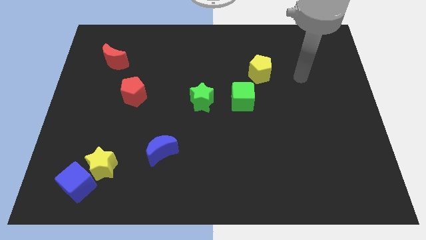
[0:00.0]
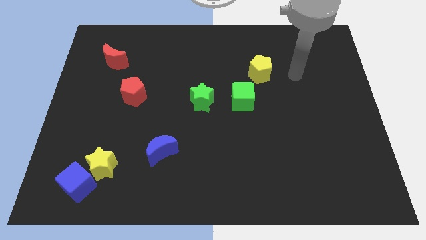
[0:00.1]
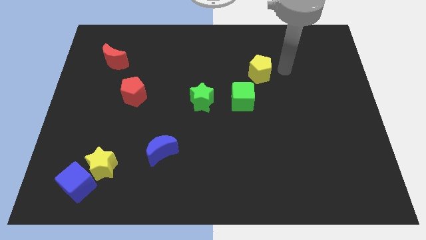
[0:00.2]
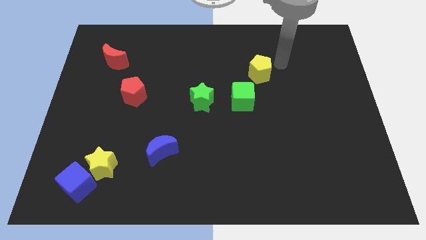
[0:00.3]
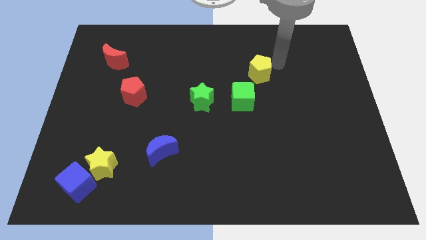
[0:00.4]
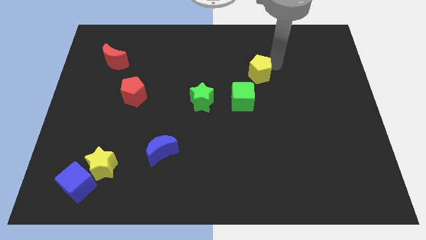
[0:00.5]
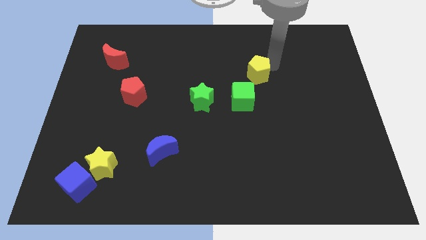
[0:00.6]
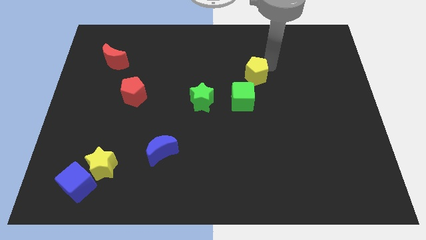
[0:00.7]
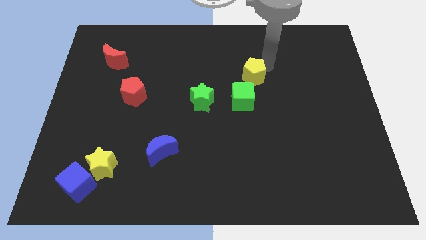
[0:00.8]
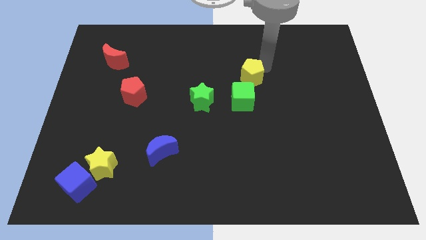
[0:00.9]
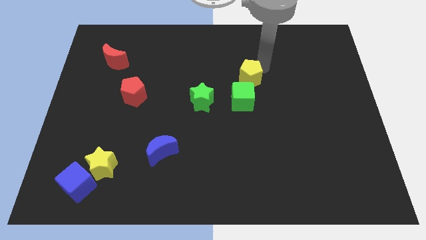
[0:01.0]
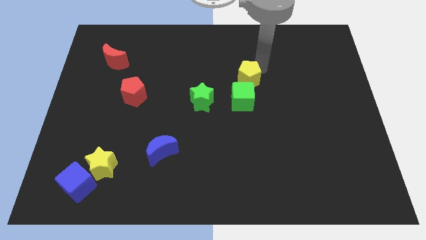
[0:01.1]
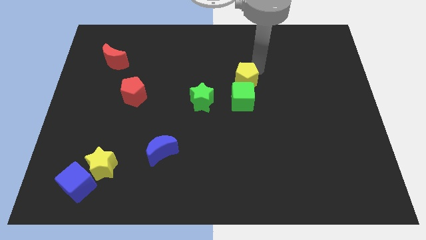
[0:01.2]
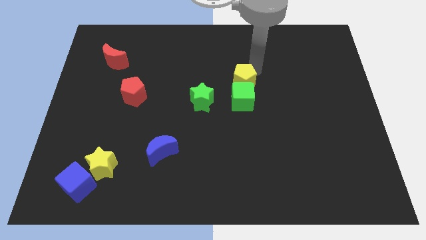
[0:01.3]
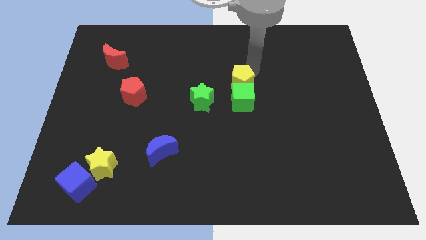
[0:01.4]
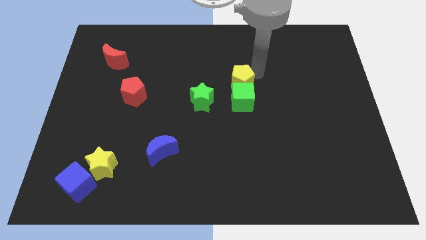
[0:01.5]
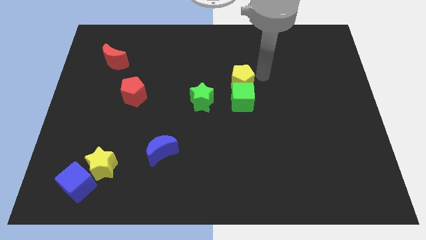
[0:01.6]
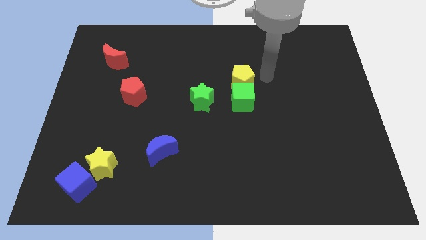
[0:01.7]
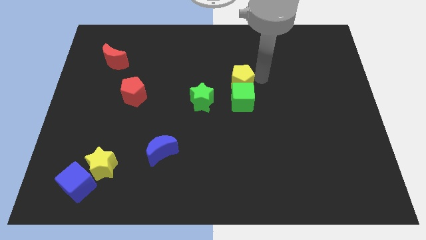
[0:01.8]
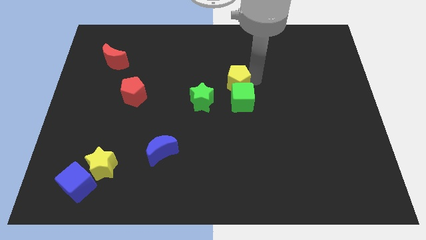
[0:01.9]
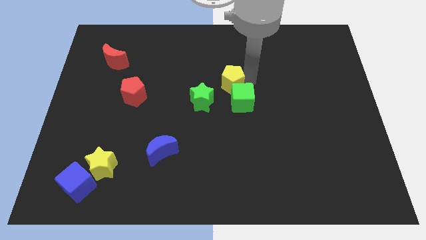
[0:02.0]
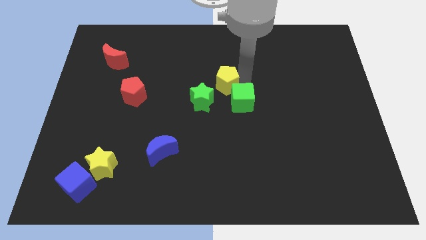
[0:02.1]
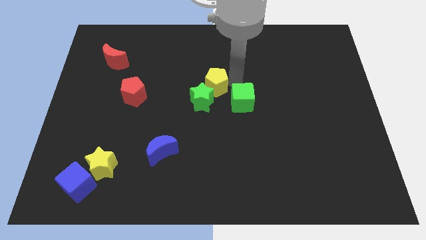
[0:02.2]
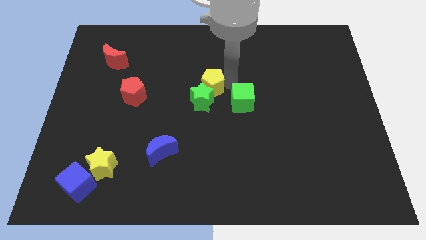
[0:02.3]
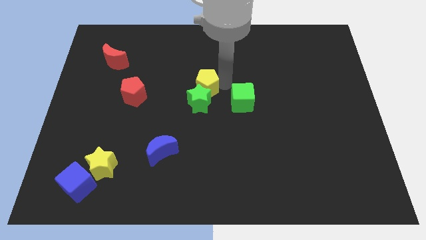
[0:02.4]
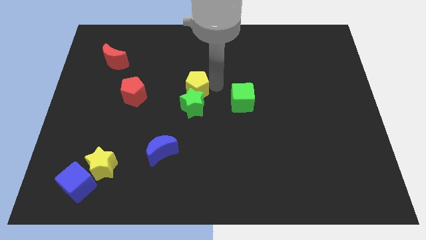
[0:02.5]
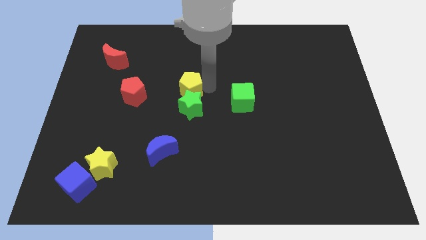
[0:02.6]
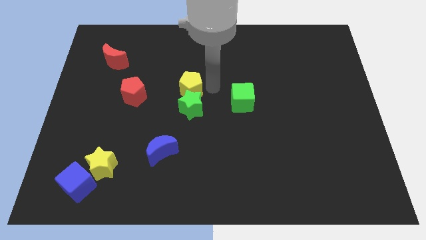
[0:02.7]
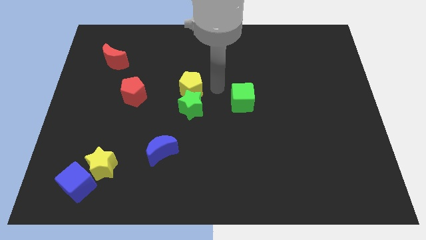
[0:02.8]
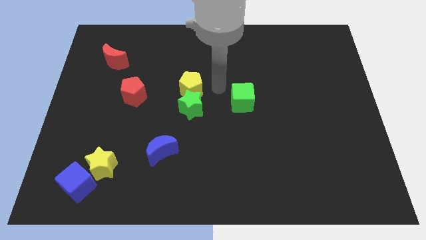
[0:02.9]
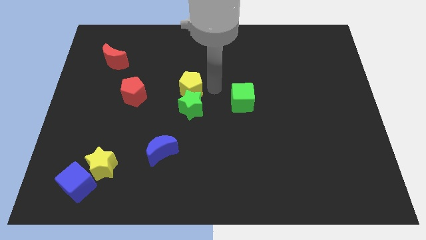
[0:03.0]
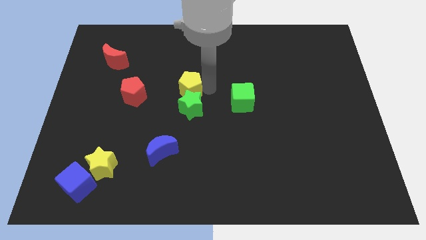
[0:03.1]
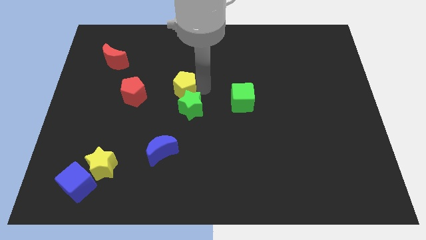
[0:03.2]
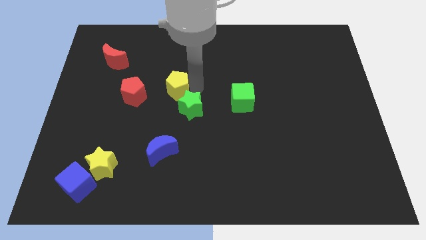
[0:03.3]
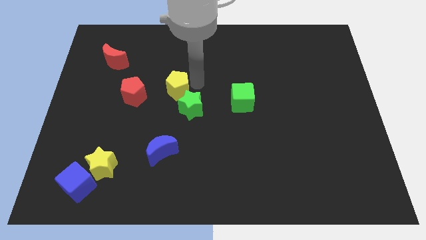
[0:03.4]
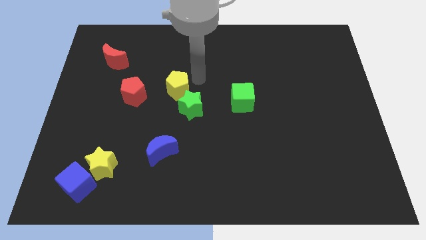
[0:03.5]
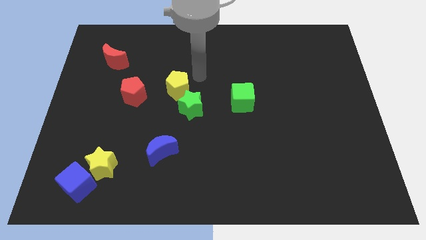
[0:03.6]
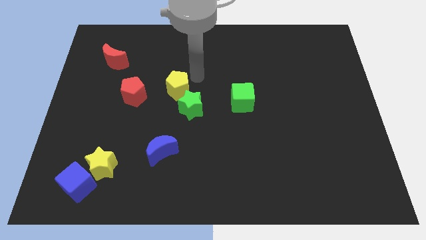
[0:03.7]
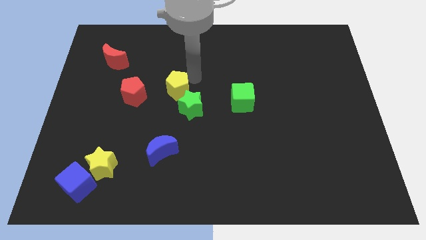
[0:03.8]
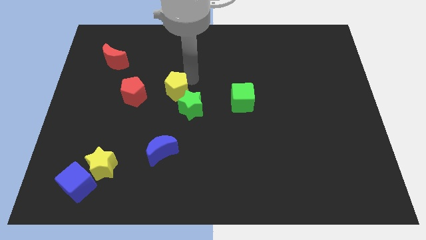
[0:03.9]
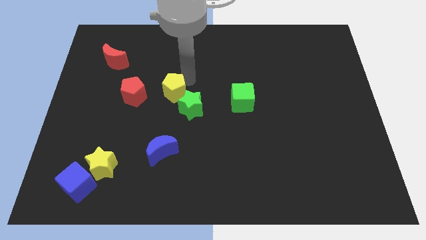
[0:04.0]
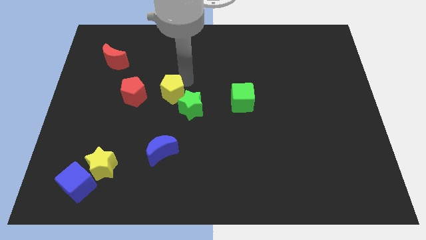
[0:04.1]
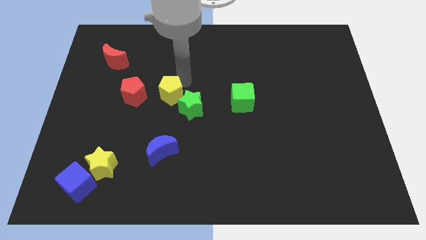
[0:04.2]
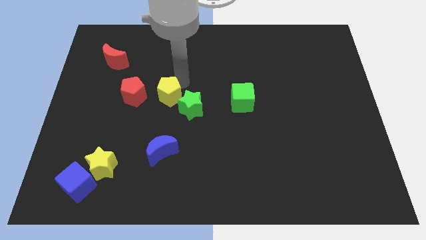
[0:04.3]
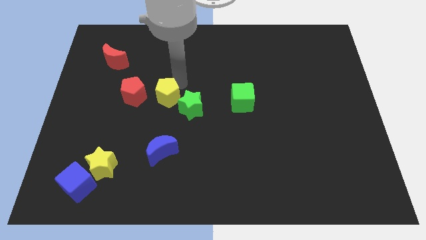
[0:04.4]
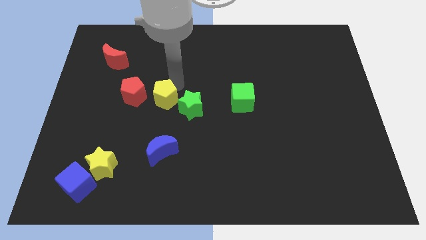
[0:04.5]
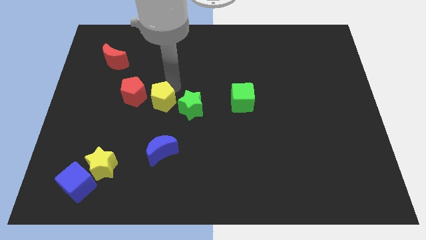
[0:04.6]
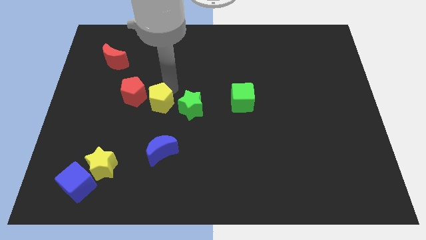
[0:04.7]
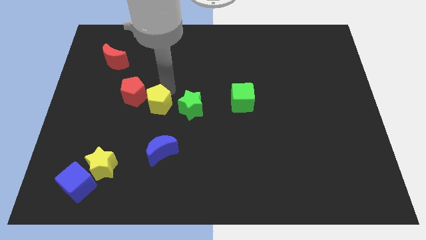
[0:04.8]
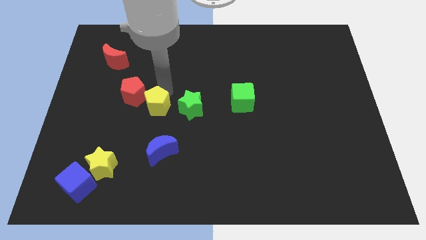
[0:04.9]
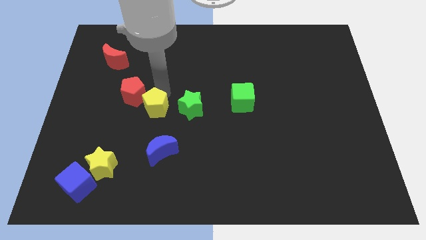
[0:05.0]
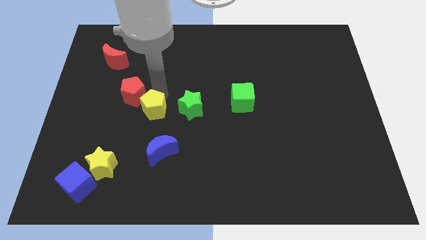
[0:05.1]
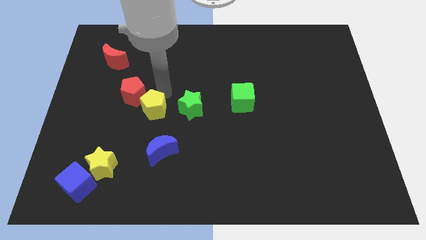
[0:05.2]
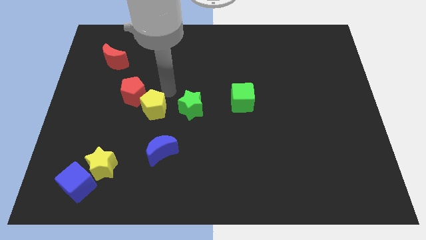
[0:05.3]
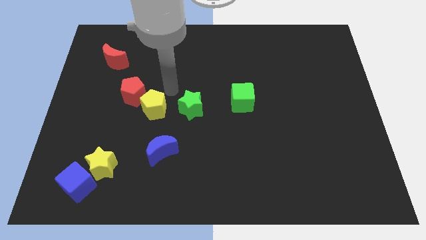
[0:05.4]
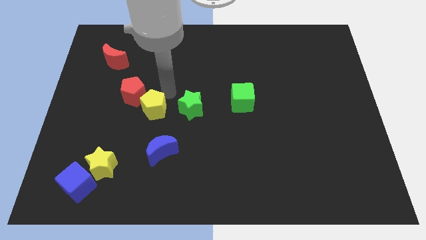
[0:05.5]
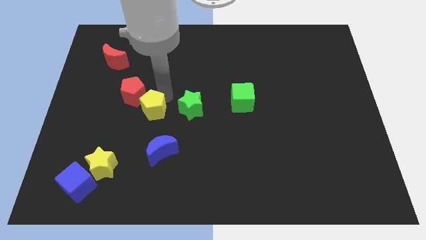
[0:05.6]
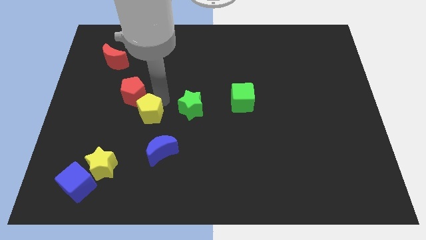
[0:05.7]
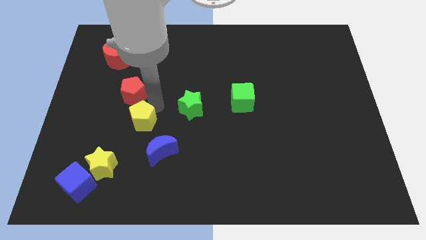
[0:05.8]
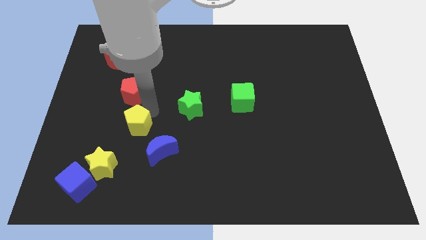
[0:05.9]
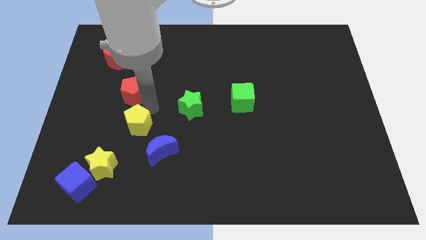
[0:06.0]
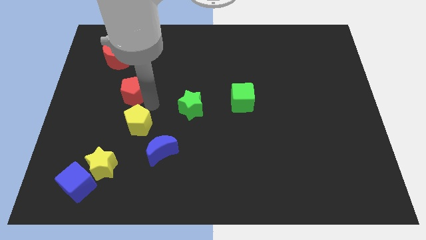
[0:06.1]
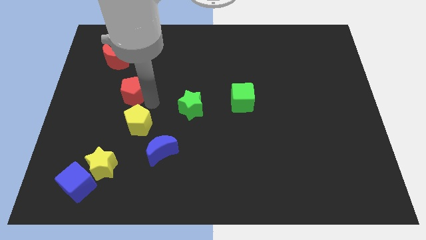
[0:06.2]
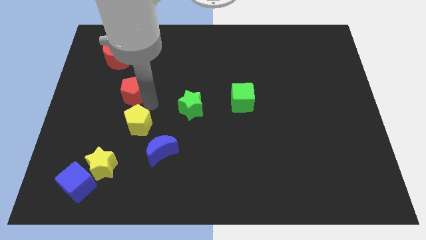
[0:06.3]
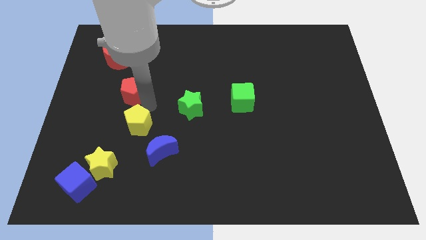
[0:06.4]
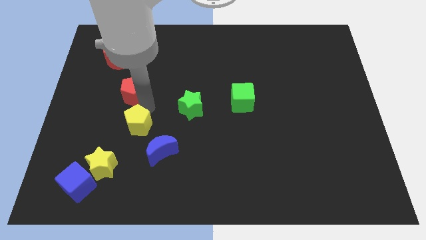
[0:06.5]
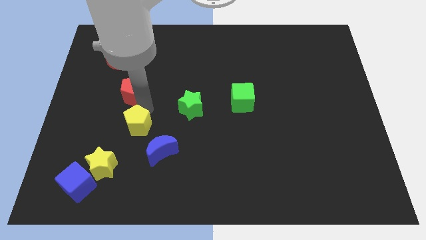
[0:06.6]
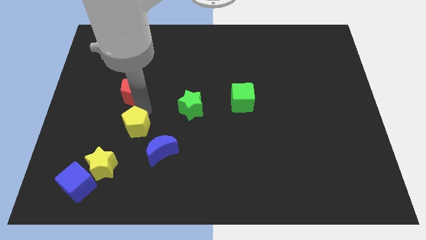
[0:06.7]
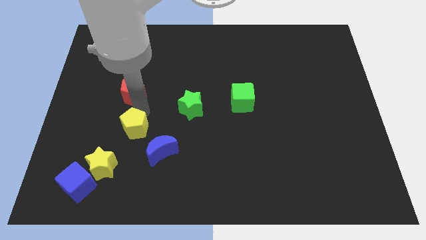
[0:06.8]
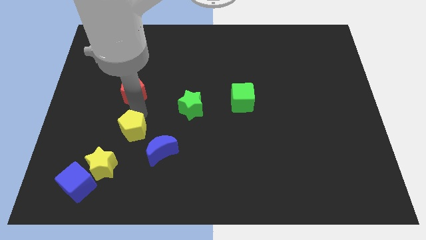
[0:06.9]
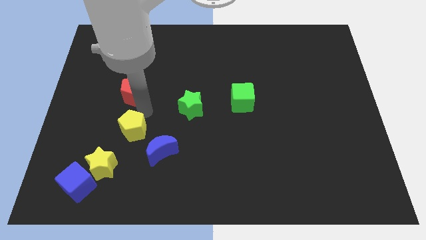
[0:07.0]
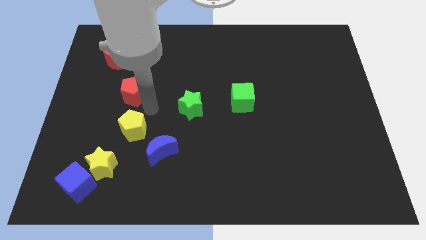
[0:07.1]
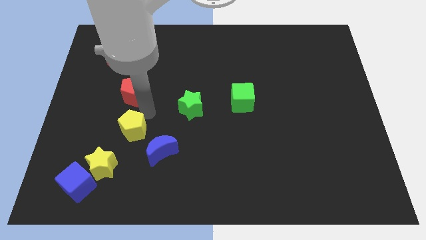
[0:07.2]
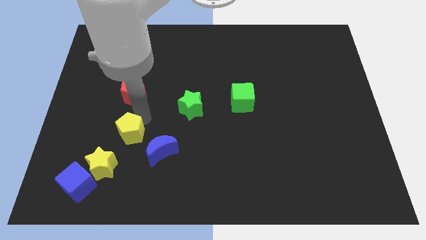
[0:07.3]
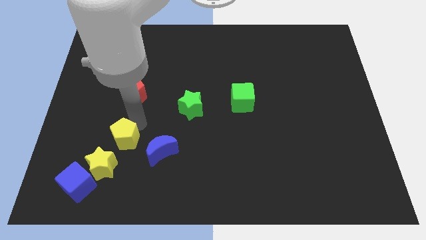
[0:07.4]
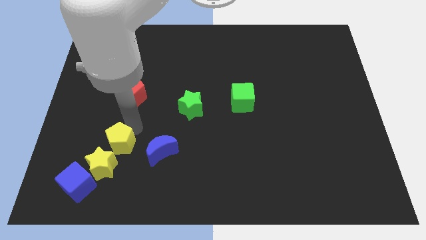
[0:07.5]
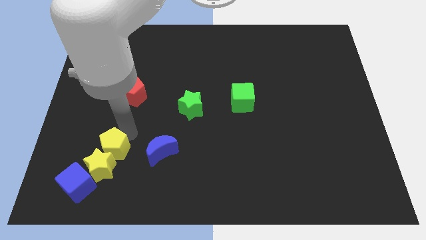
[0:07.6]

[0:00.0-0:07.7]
slide the yellow pentagon next to the yellow star
